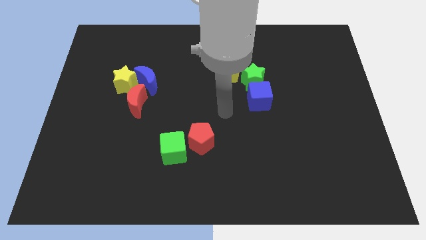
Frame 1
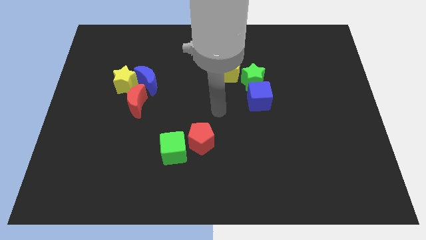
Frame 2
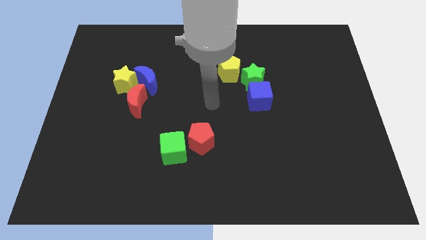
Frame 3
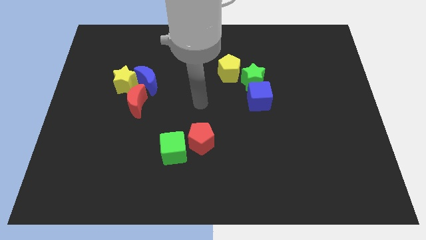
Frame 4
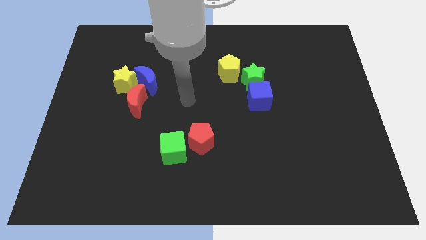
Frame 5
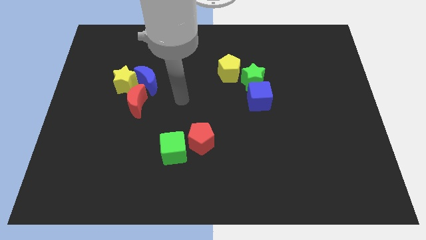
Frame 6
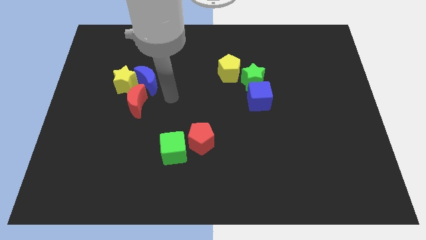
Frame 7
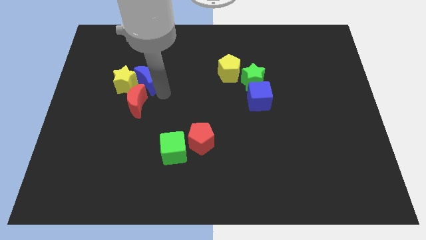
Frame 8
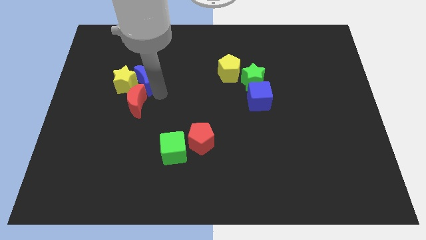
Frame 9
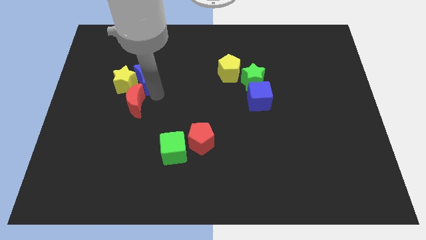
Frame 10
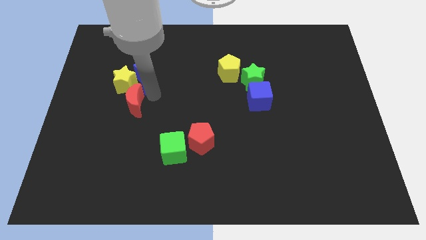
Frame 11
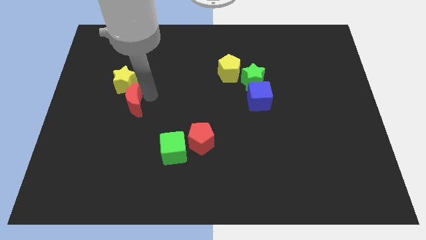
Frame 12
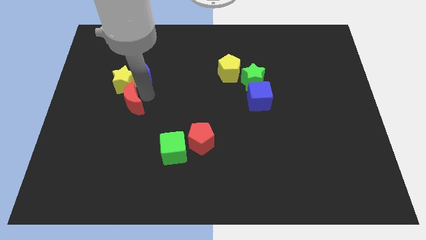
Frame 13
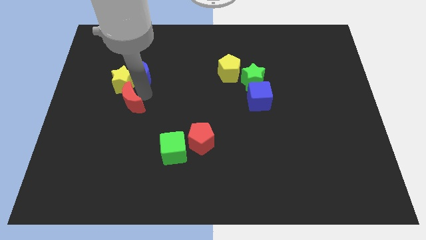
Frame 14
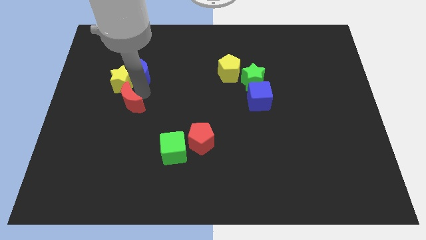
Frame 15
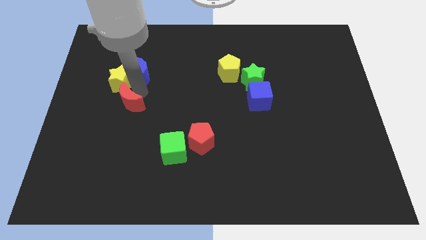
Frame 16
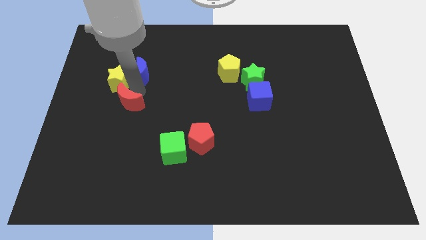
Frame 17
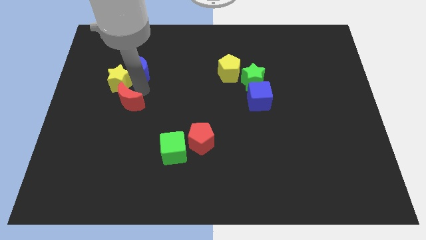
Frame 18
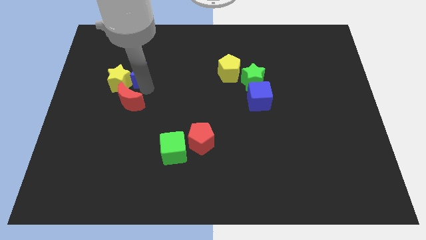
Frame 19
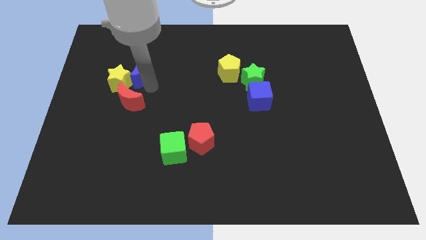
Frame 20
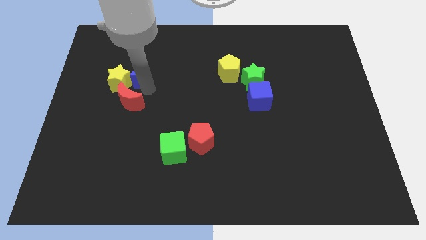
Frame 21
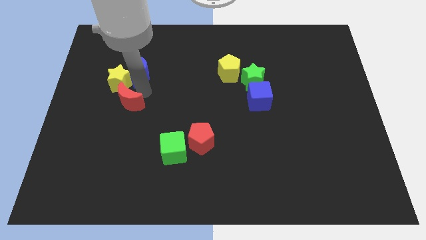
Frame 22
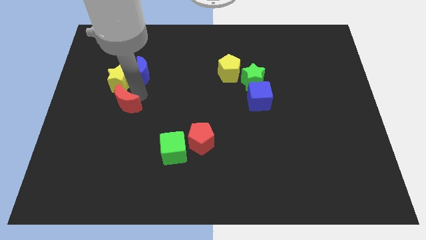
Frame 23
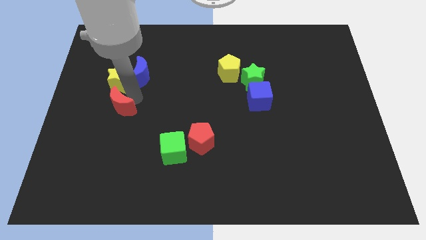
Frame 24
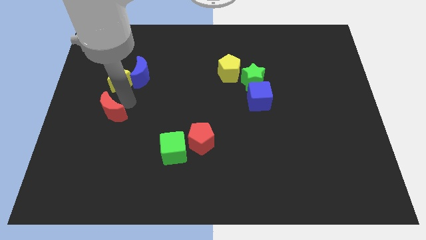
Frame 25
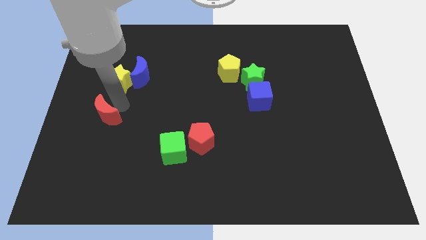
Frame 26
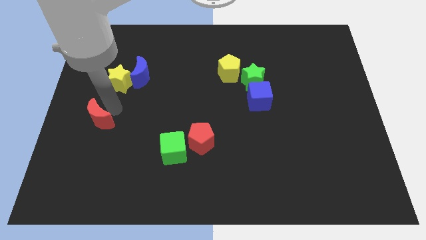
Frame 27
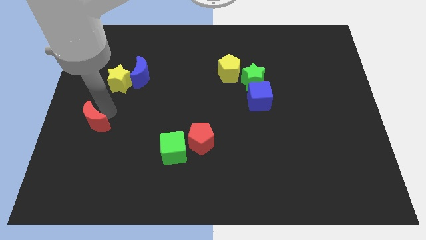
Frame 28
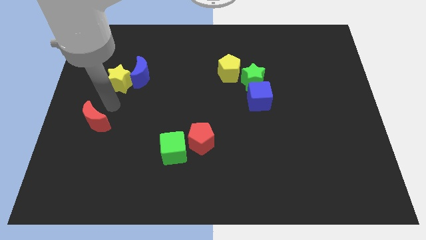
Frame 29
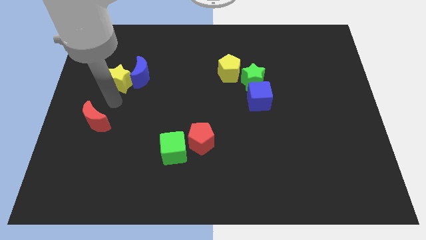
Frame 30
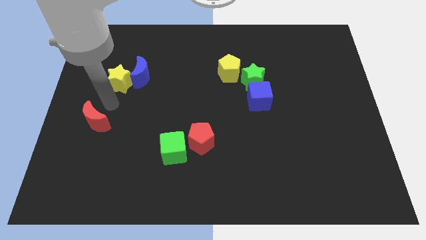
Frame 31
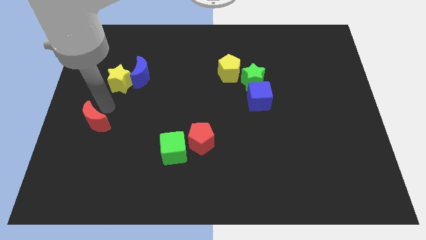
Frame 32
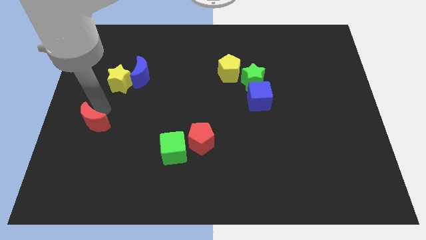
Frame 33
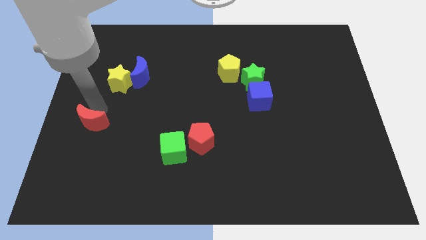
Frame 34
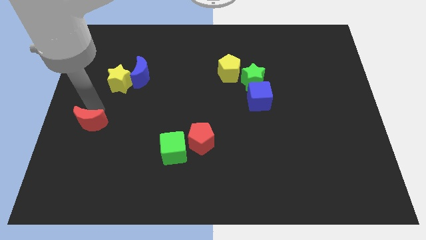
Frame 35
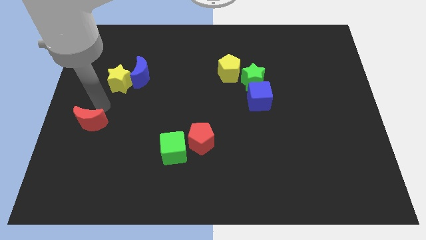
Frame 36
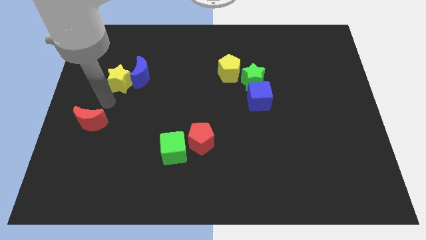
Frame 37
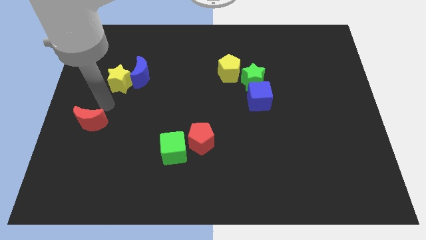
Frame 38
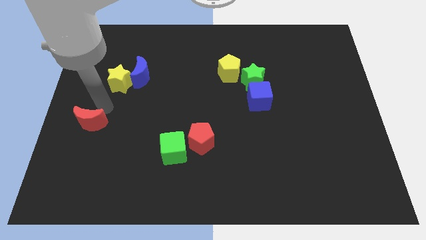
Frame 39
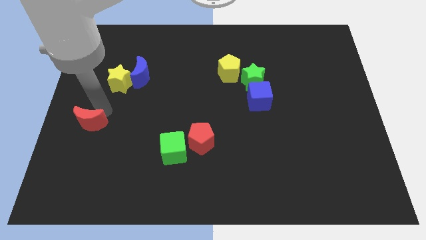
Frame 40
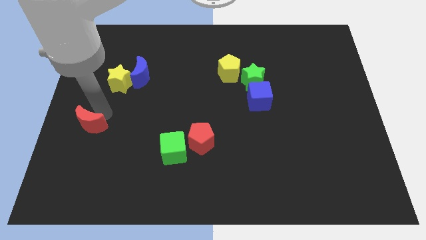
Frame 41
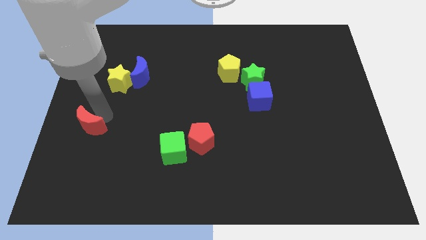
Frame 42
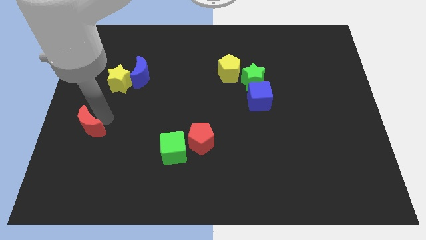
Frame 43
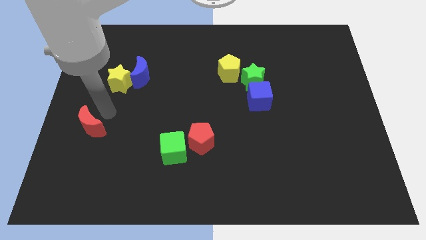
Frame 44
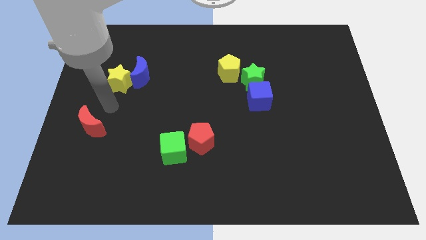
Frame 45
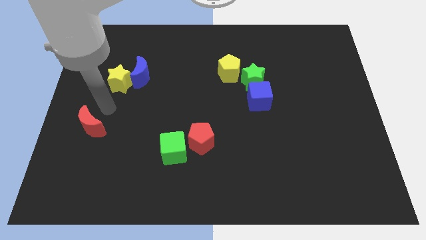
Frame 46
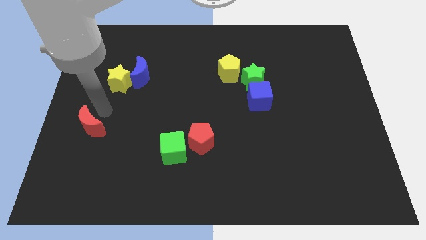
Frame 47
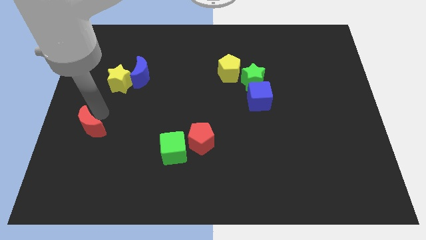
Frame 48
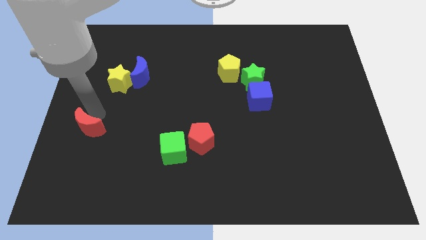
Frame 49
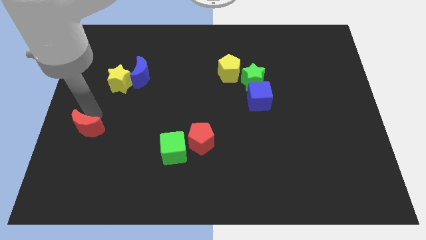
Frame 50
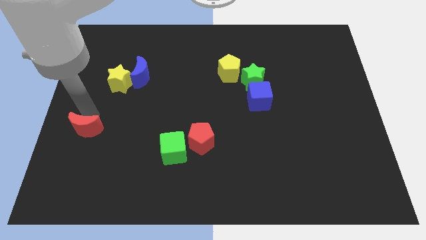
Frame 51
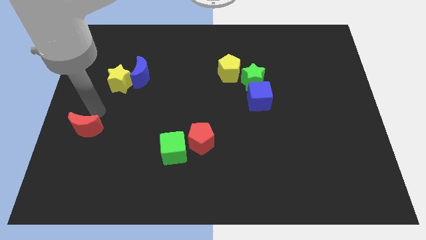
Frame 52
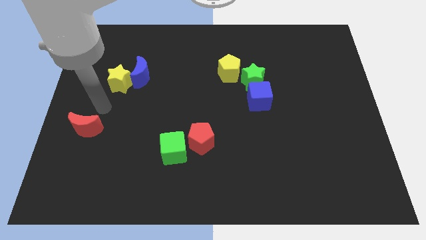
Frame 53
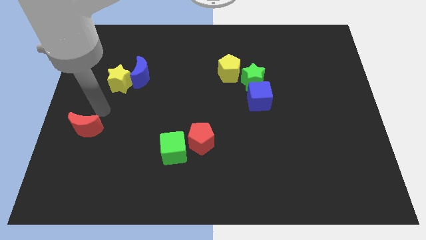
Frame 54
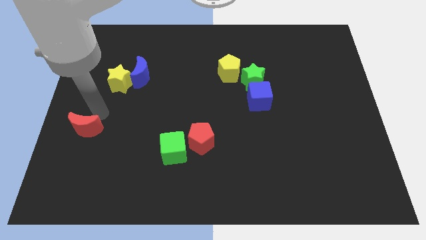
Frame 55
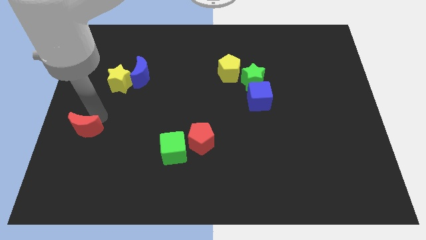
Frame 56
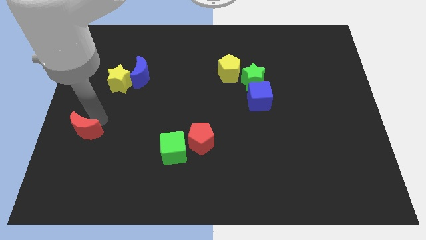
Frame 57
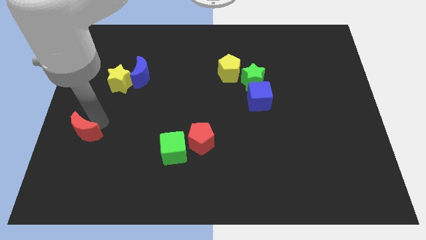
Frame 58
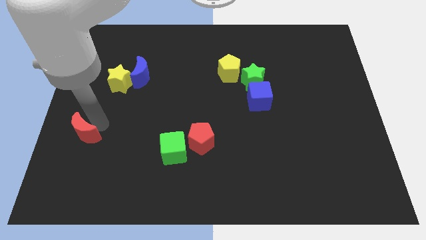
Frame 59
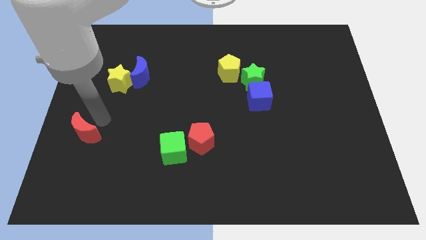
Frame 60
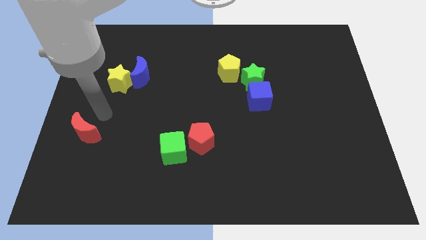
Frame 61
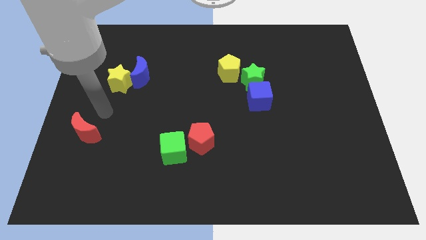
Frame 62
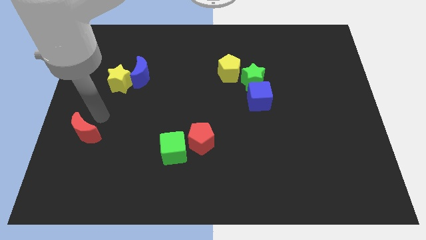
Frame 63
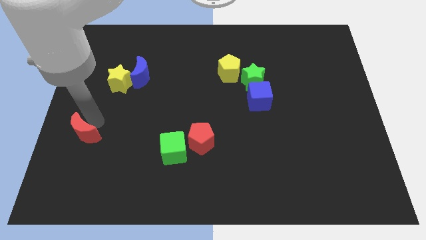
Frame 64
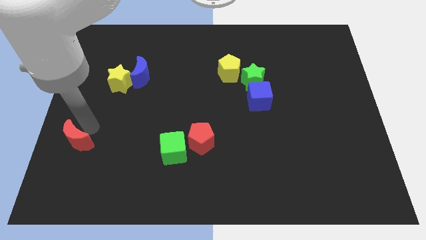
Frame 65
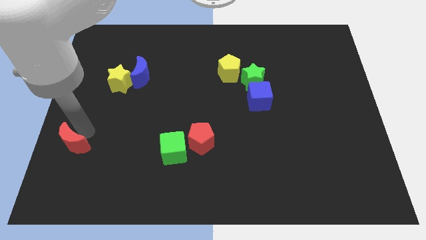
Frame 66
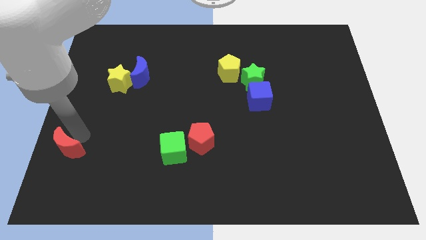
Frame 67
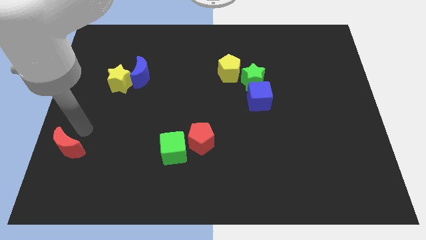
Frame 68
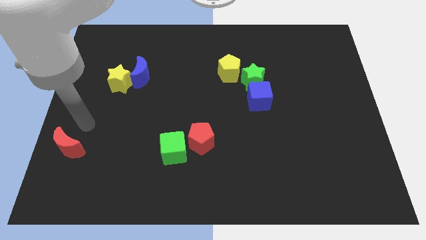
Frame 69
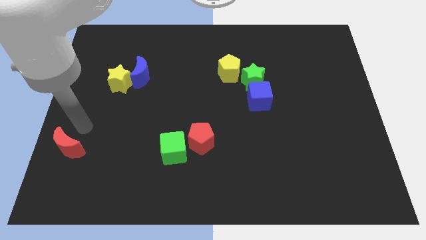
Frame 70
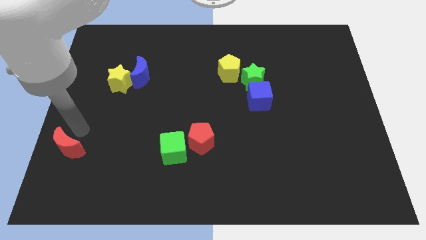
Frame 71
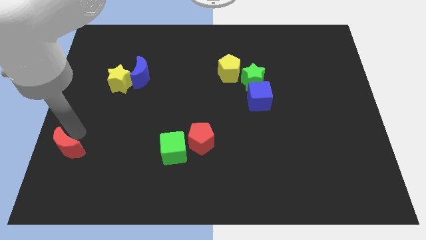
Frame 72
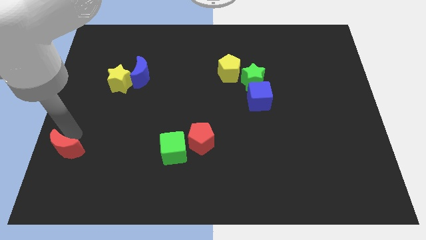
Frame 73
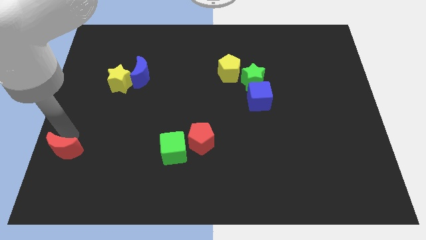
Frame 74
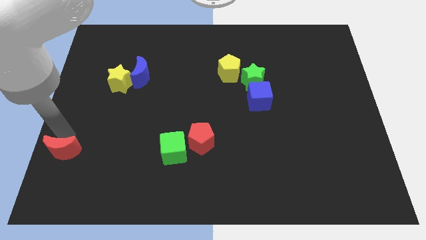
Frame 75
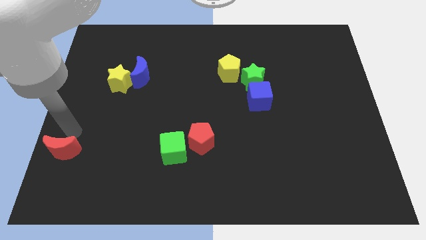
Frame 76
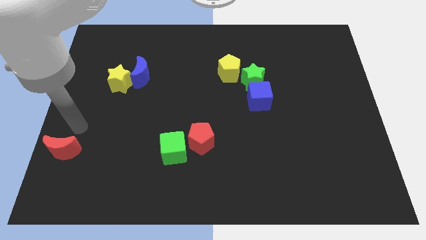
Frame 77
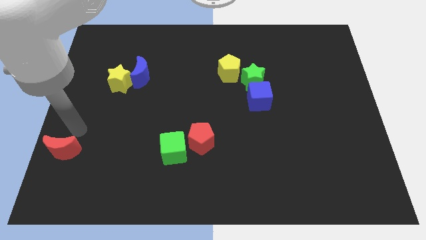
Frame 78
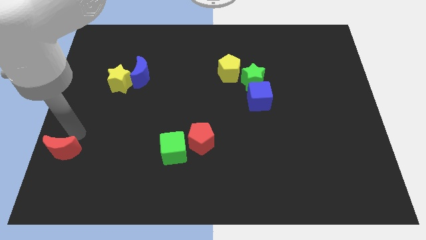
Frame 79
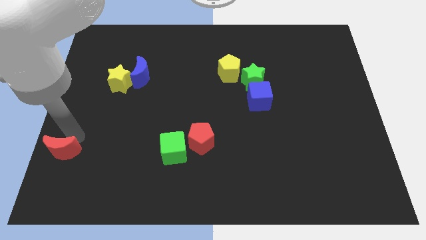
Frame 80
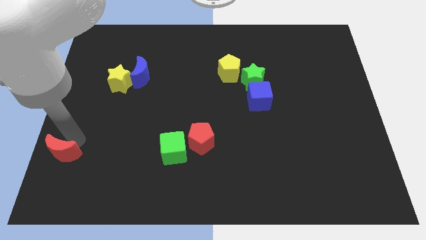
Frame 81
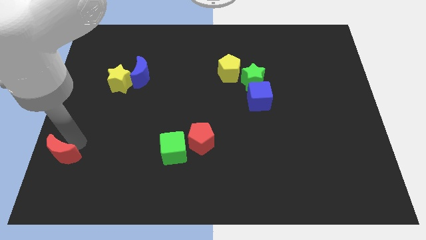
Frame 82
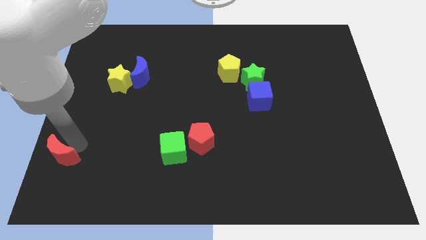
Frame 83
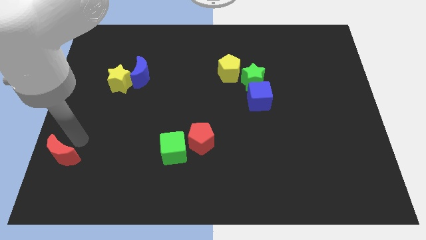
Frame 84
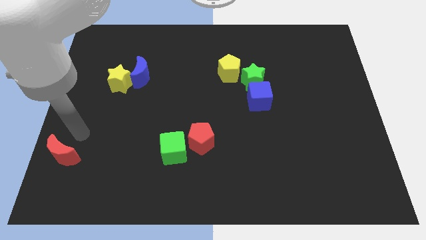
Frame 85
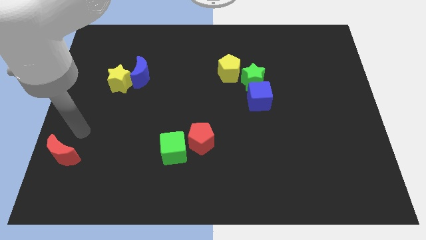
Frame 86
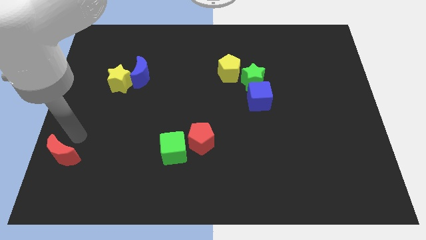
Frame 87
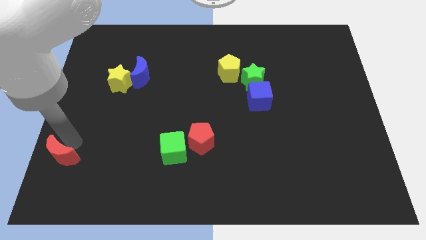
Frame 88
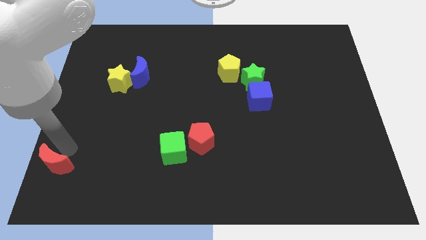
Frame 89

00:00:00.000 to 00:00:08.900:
put the red moon to the bottom left corner
